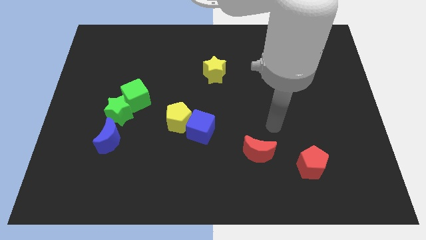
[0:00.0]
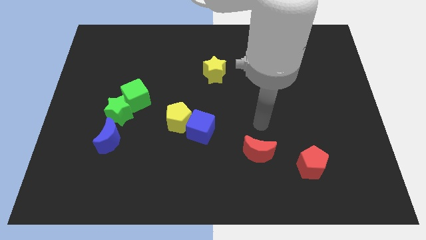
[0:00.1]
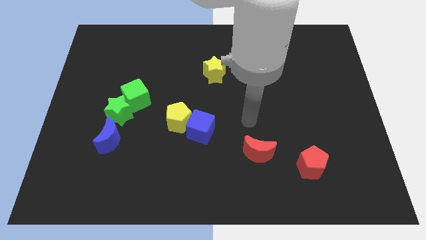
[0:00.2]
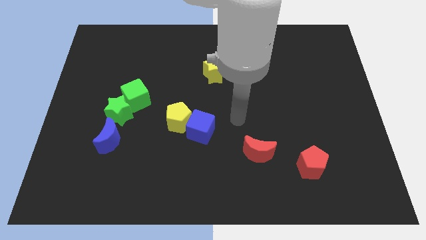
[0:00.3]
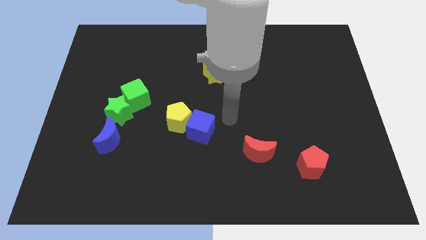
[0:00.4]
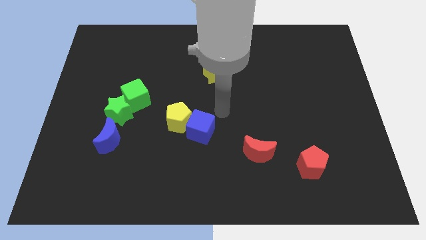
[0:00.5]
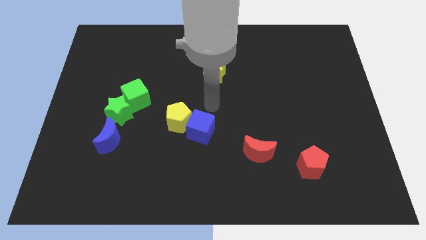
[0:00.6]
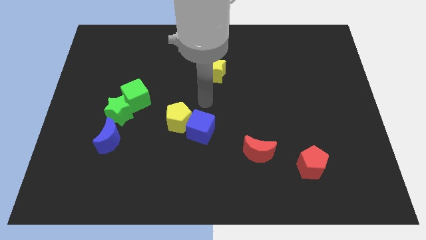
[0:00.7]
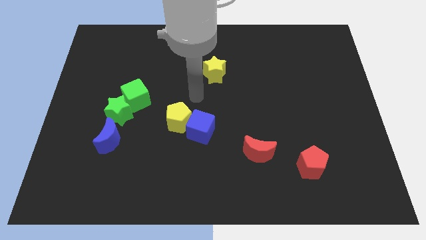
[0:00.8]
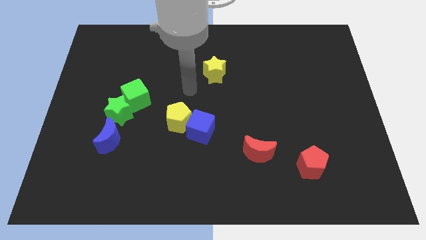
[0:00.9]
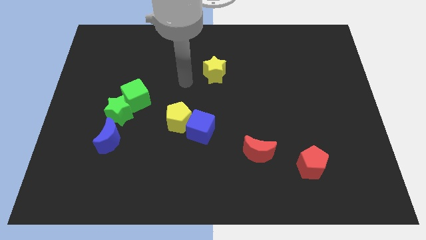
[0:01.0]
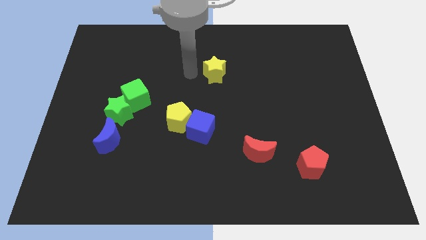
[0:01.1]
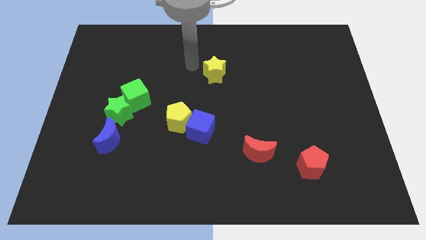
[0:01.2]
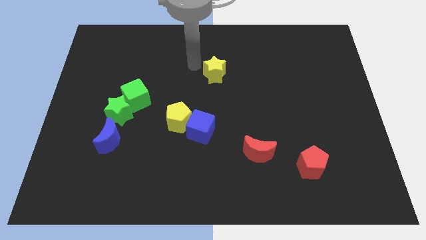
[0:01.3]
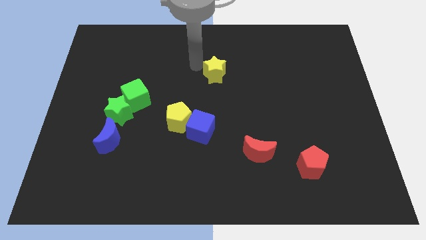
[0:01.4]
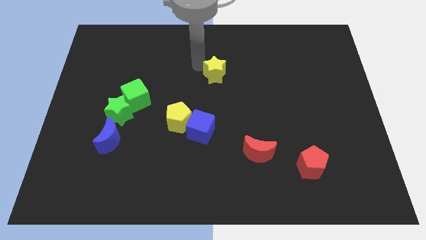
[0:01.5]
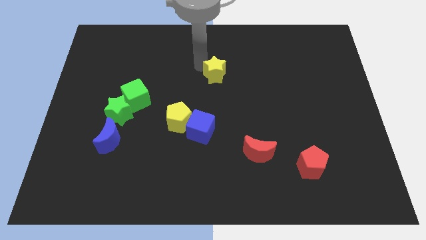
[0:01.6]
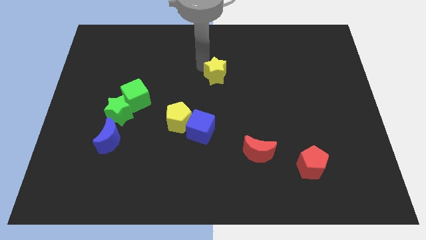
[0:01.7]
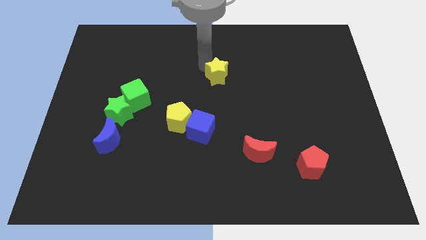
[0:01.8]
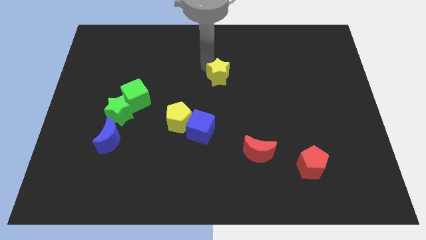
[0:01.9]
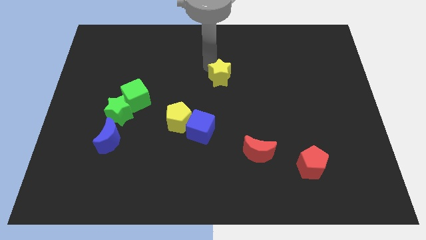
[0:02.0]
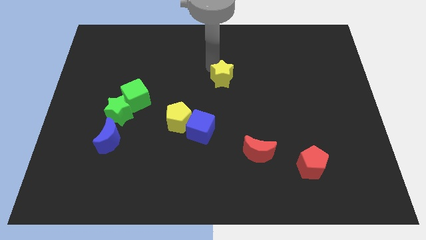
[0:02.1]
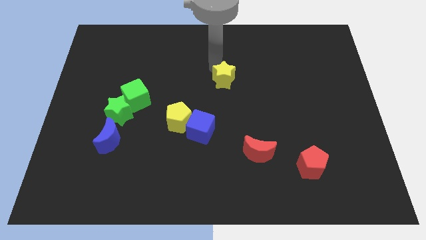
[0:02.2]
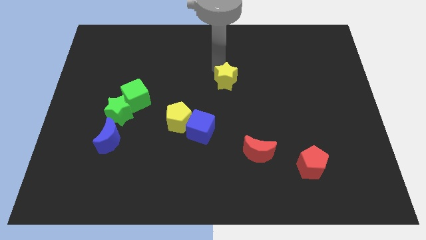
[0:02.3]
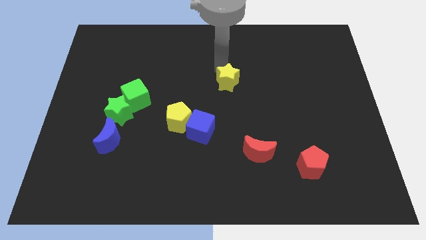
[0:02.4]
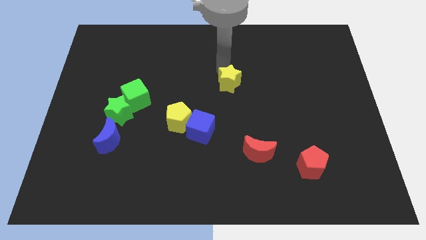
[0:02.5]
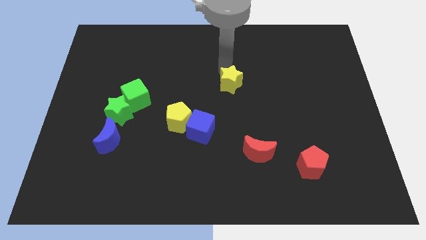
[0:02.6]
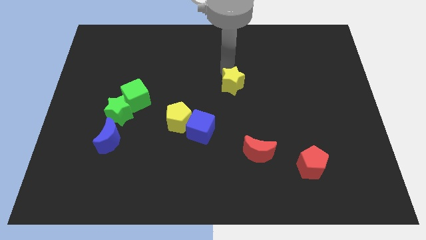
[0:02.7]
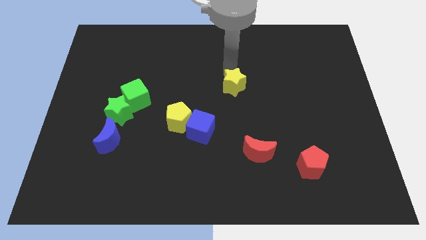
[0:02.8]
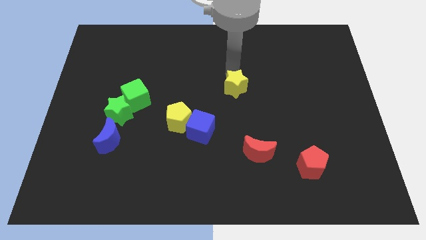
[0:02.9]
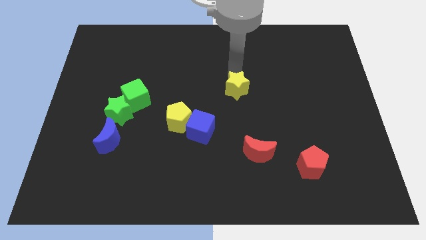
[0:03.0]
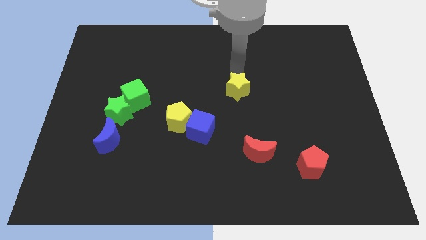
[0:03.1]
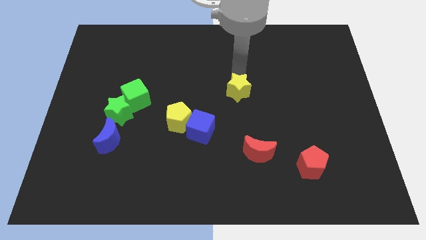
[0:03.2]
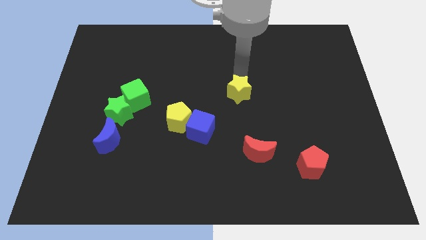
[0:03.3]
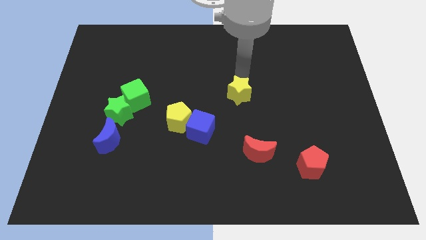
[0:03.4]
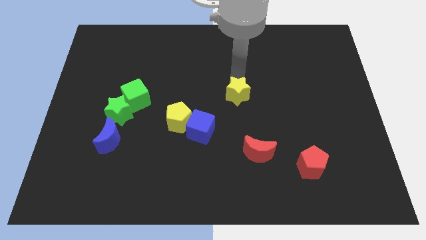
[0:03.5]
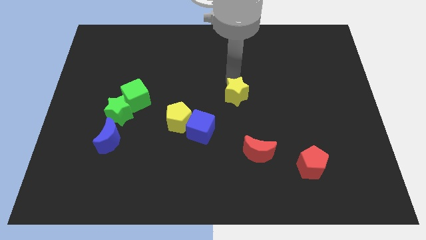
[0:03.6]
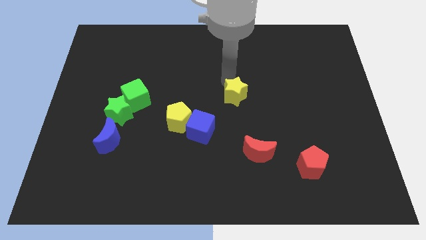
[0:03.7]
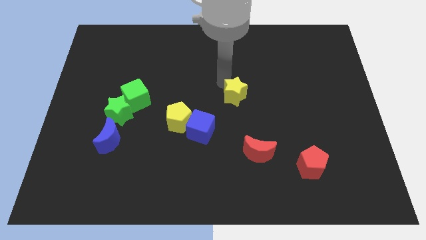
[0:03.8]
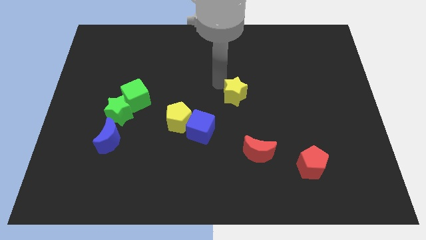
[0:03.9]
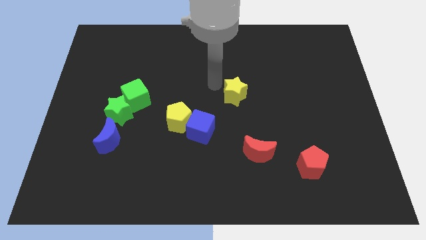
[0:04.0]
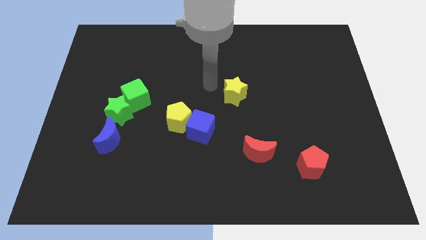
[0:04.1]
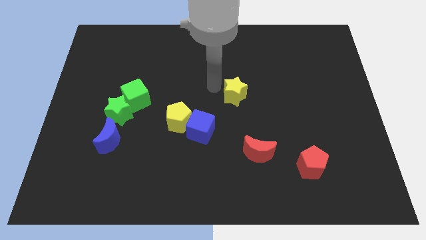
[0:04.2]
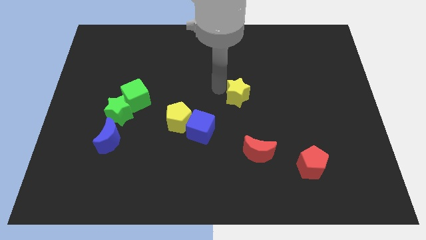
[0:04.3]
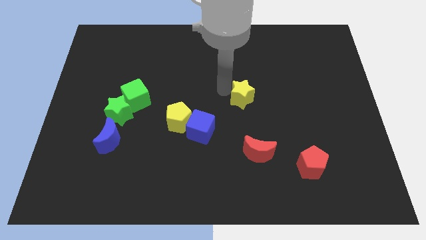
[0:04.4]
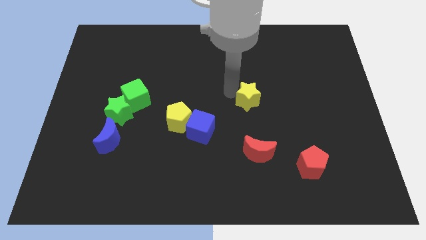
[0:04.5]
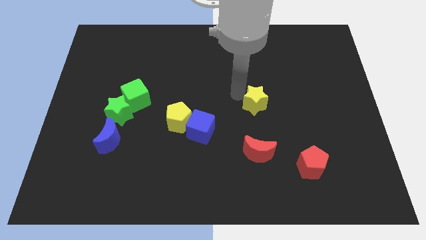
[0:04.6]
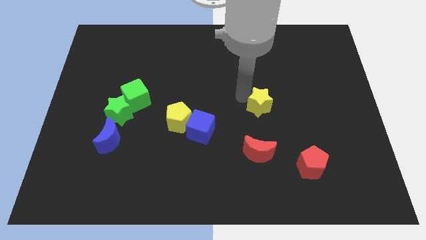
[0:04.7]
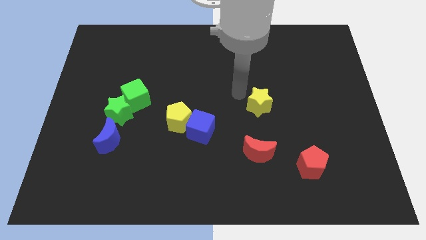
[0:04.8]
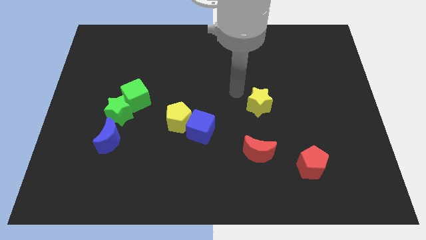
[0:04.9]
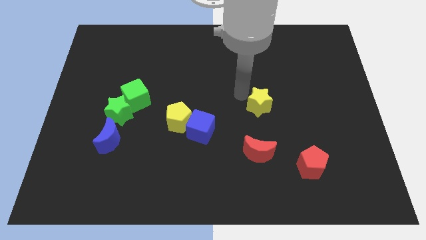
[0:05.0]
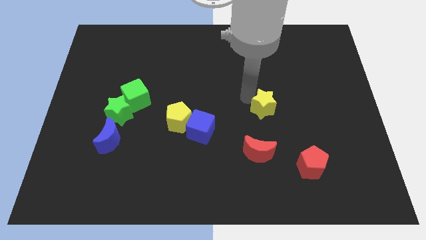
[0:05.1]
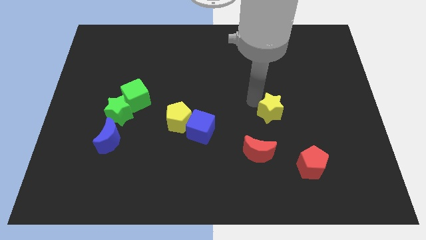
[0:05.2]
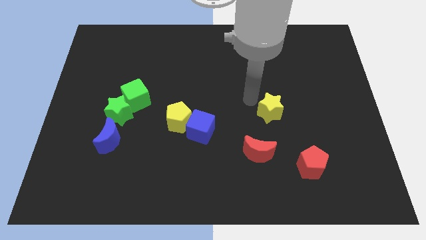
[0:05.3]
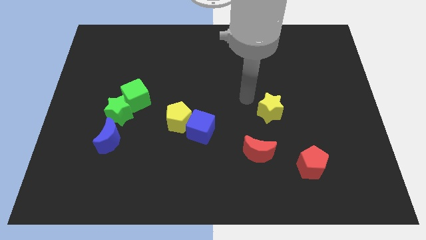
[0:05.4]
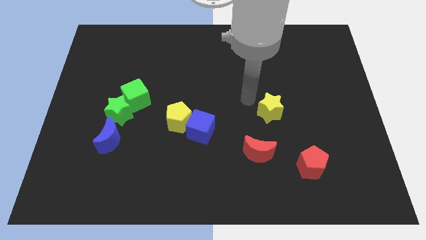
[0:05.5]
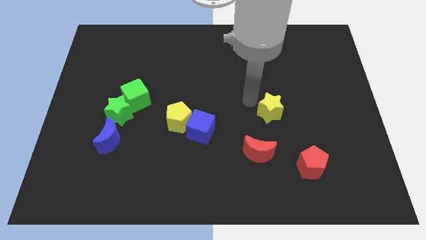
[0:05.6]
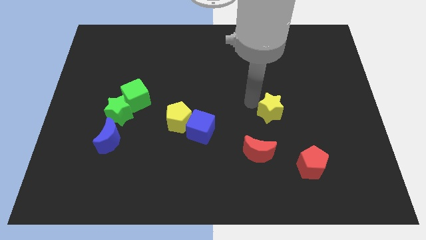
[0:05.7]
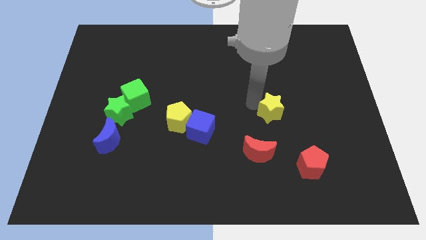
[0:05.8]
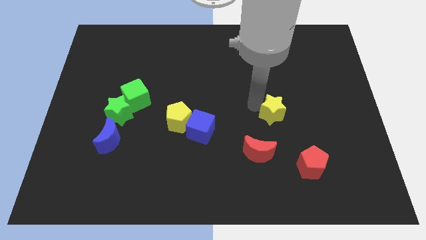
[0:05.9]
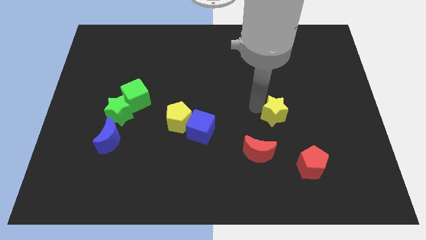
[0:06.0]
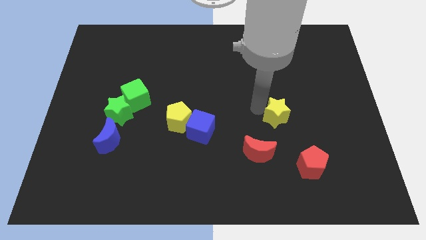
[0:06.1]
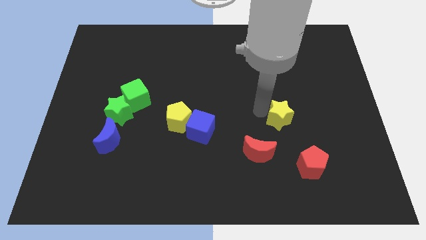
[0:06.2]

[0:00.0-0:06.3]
slide the yellow star downwards and right diagonally

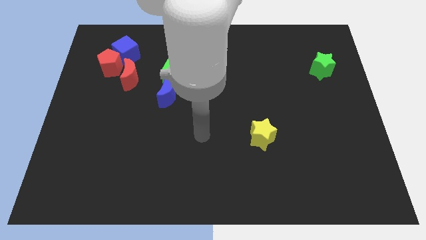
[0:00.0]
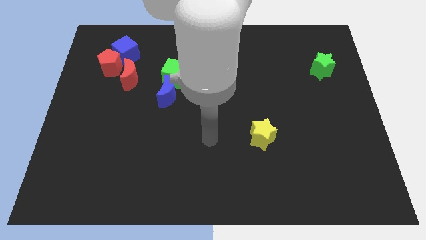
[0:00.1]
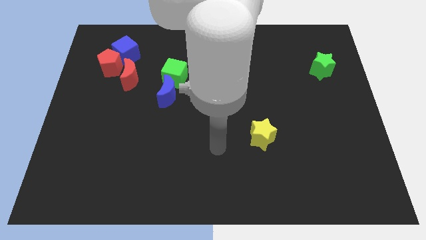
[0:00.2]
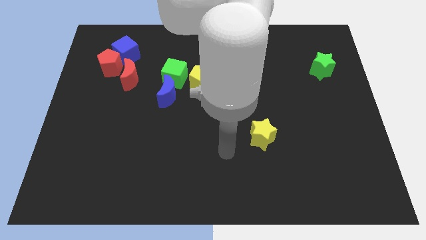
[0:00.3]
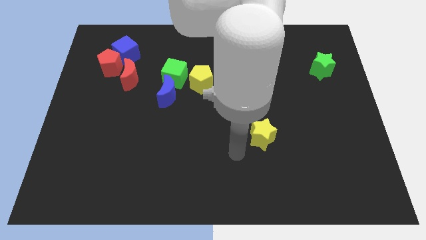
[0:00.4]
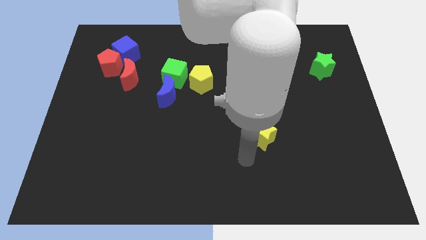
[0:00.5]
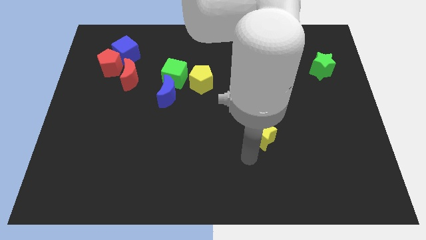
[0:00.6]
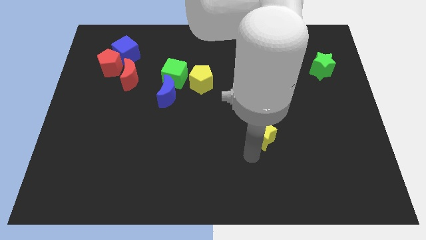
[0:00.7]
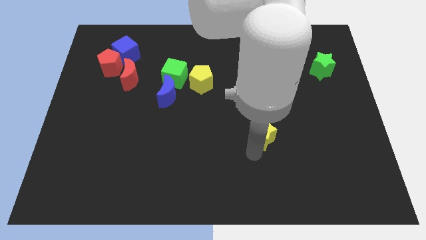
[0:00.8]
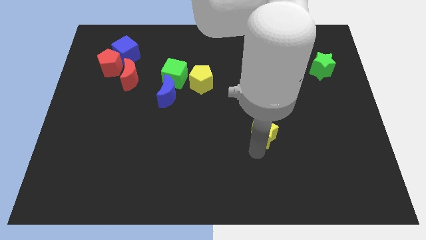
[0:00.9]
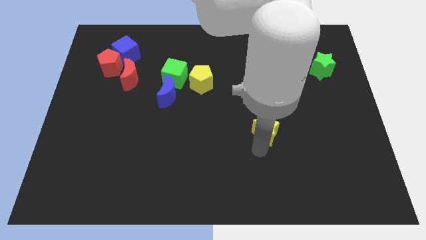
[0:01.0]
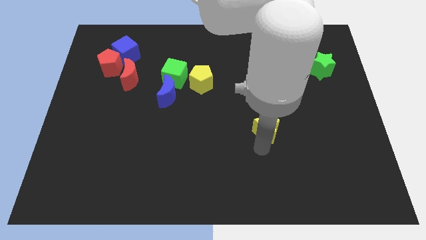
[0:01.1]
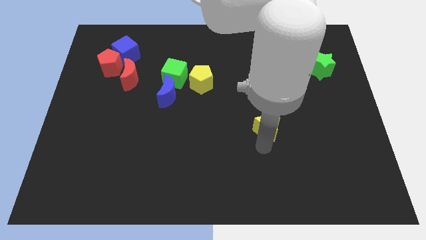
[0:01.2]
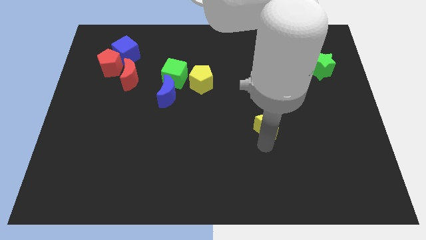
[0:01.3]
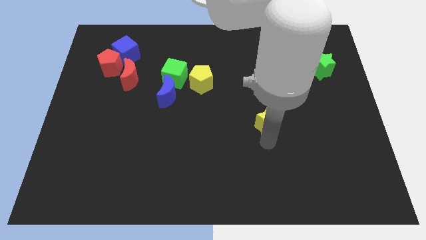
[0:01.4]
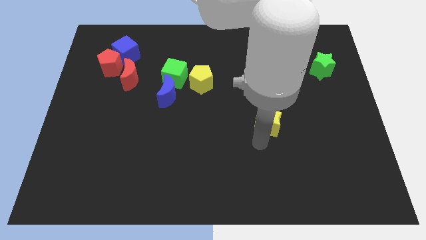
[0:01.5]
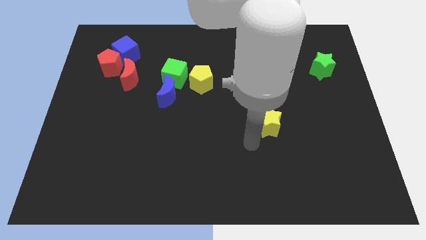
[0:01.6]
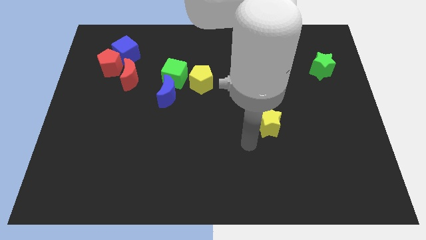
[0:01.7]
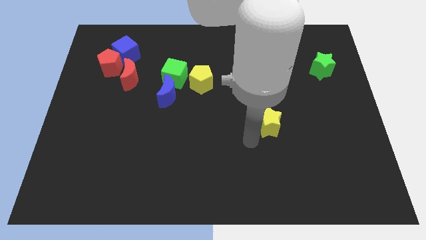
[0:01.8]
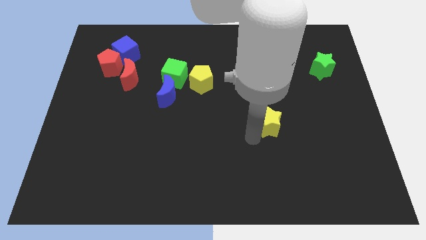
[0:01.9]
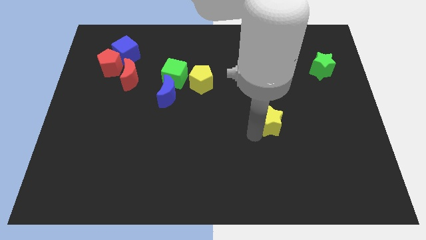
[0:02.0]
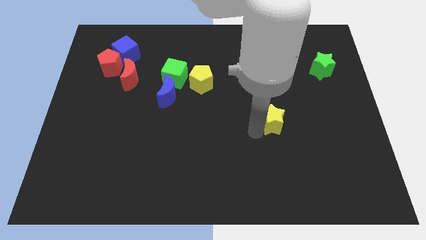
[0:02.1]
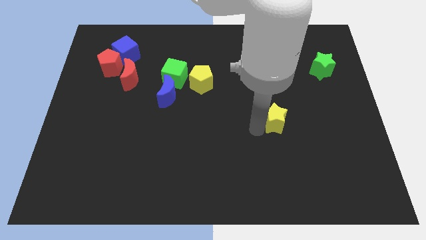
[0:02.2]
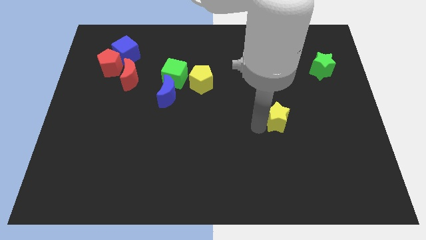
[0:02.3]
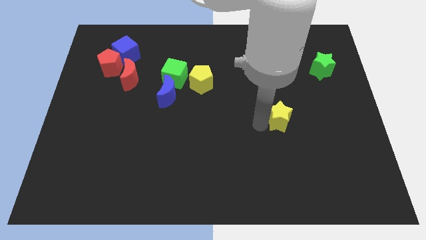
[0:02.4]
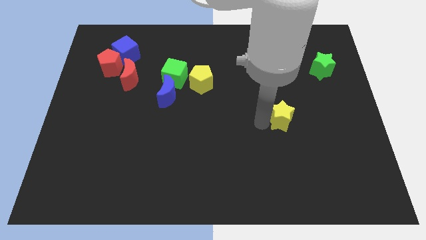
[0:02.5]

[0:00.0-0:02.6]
slightly slide the yellow star up and then to the right
